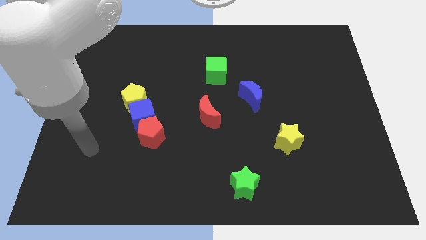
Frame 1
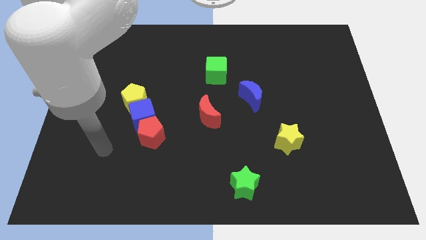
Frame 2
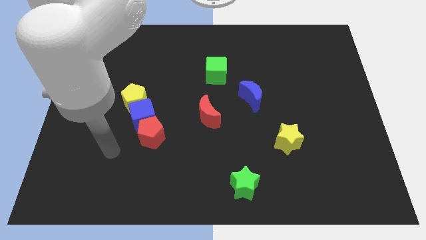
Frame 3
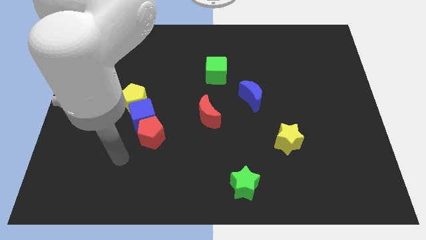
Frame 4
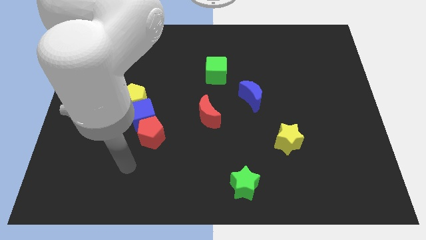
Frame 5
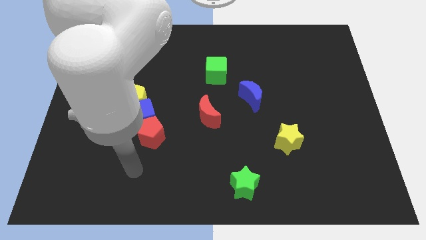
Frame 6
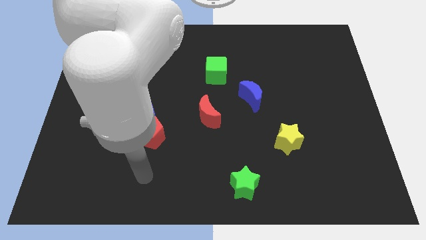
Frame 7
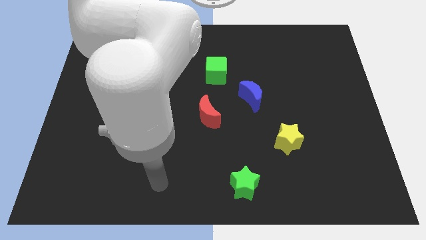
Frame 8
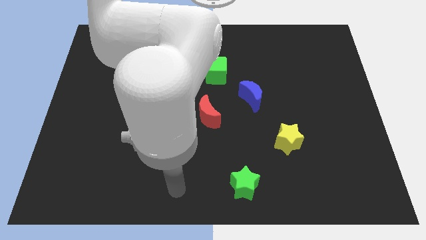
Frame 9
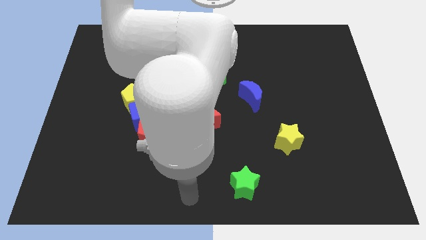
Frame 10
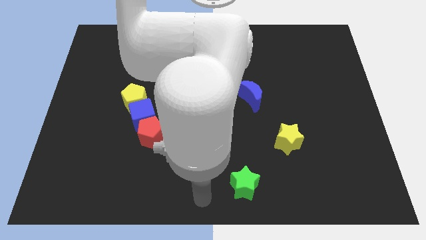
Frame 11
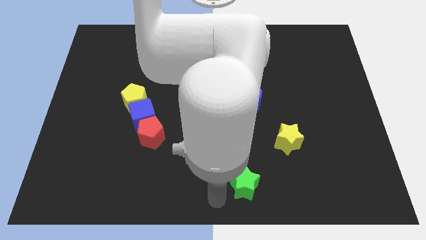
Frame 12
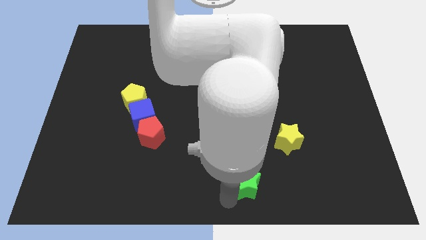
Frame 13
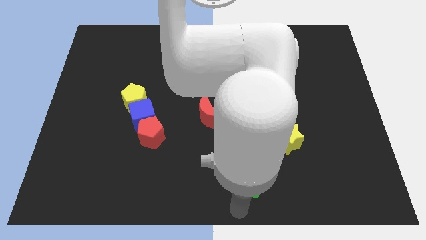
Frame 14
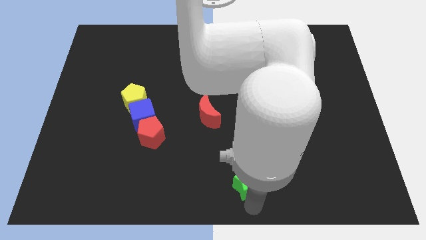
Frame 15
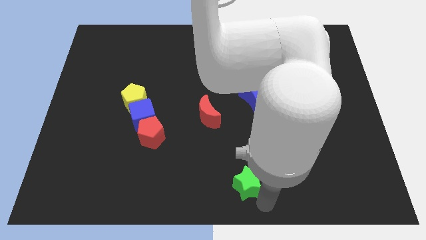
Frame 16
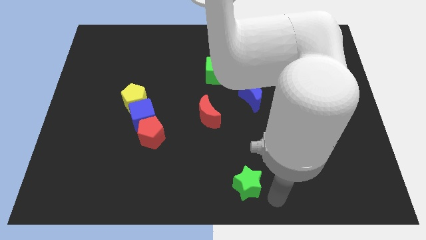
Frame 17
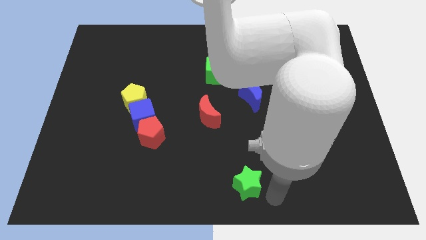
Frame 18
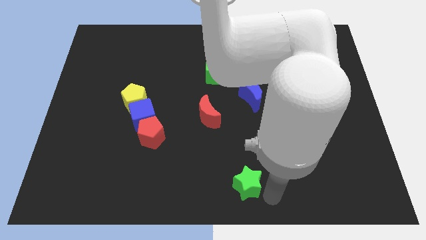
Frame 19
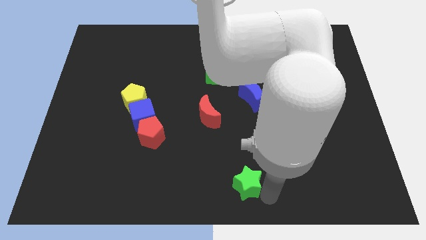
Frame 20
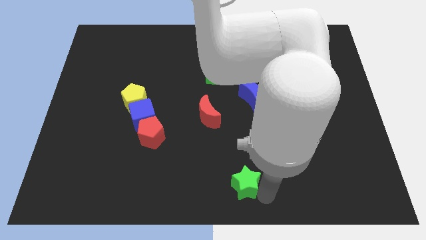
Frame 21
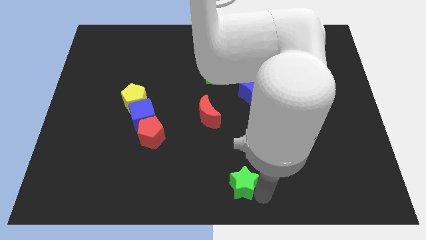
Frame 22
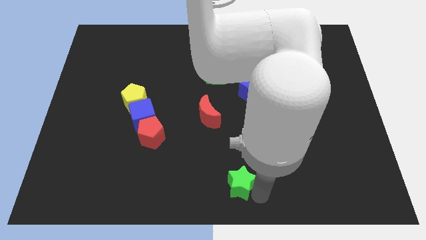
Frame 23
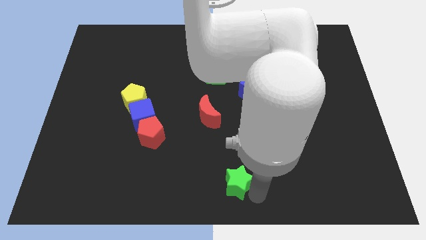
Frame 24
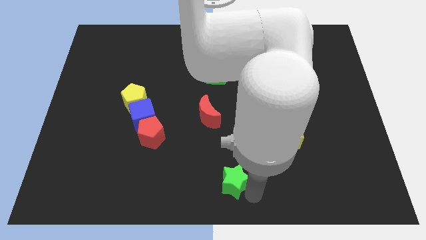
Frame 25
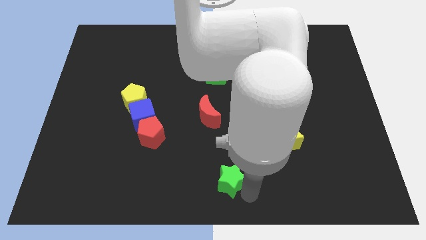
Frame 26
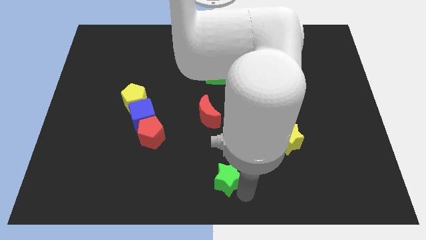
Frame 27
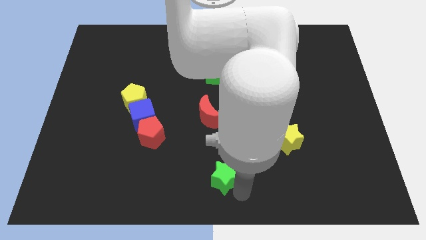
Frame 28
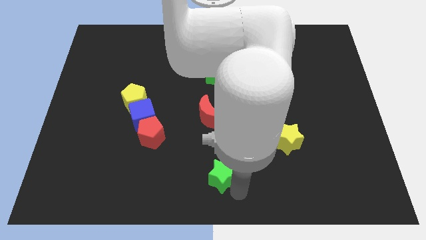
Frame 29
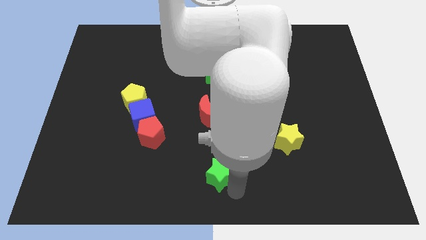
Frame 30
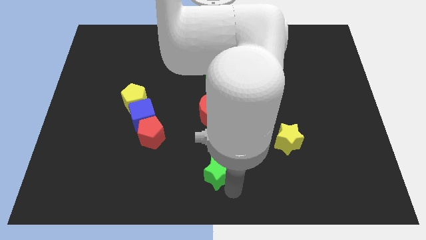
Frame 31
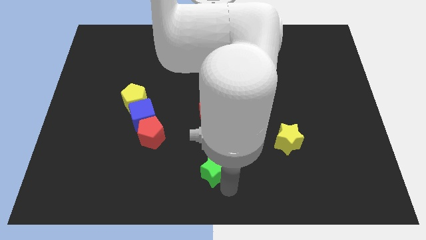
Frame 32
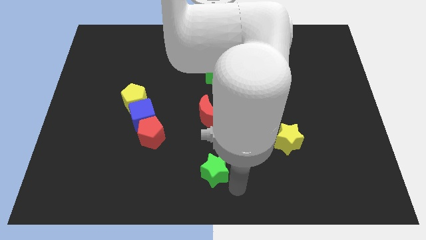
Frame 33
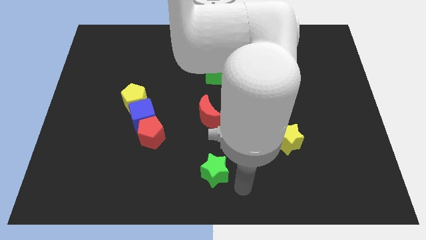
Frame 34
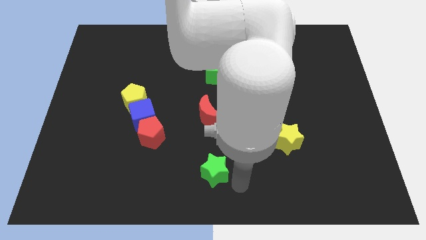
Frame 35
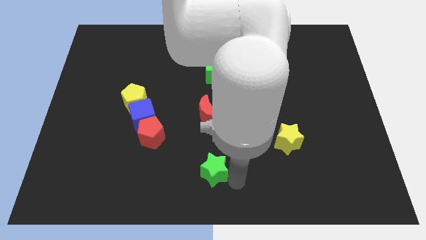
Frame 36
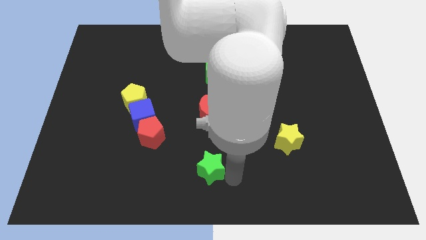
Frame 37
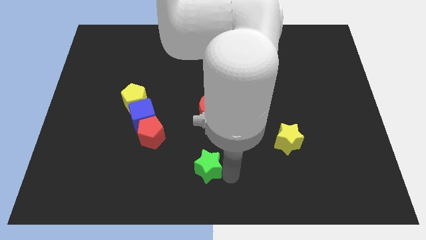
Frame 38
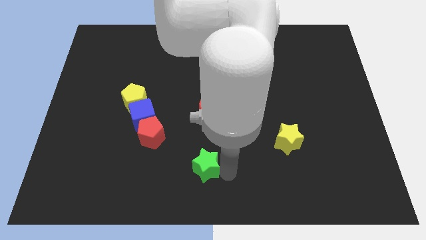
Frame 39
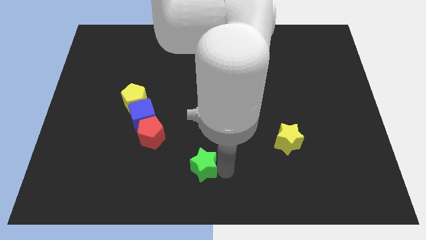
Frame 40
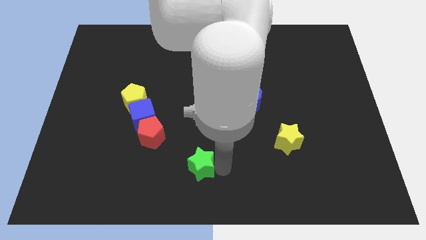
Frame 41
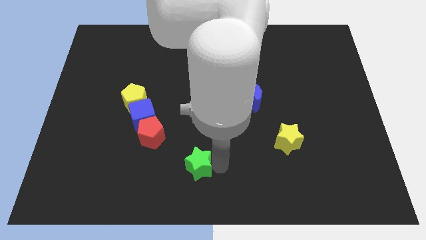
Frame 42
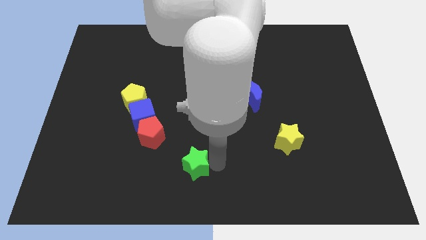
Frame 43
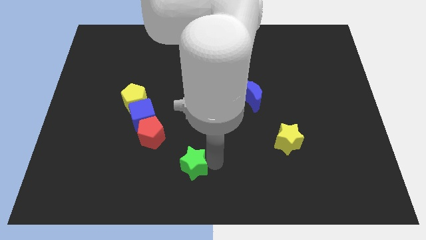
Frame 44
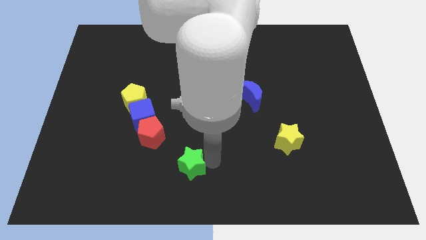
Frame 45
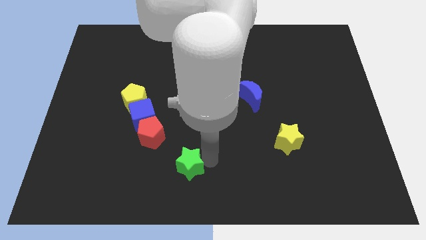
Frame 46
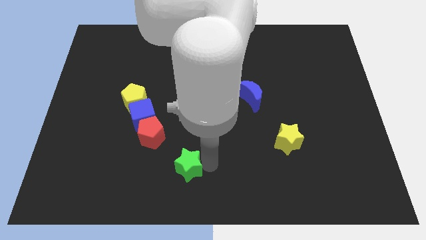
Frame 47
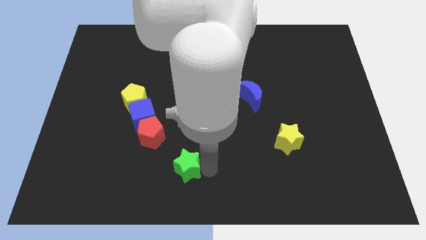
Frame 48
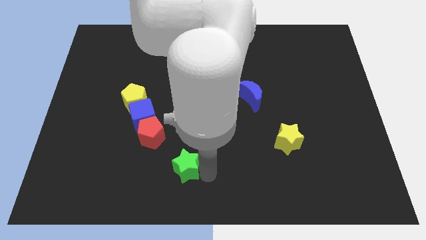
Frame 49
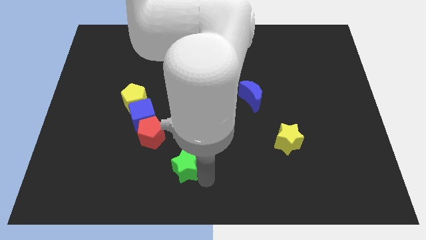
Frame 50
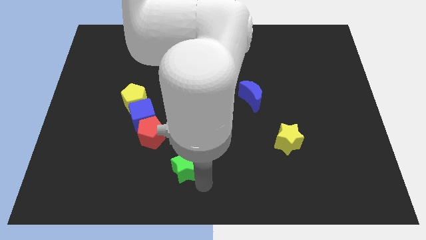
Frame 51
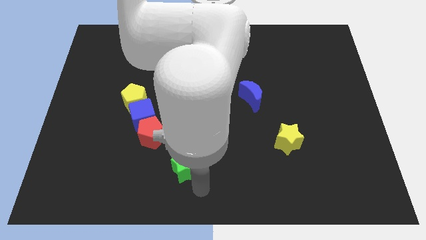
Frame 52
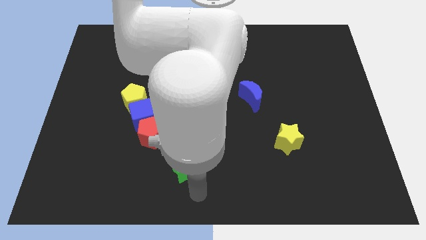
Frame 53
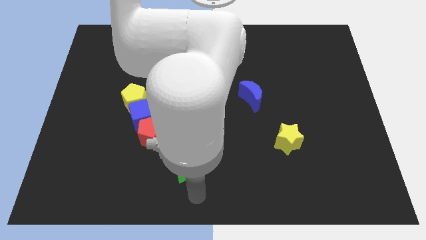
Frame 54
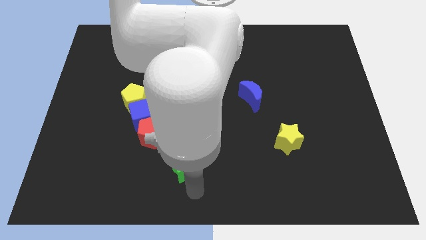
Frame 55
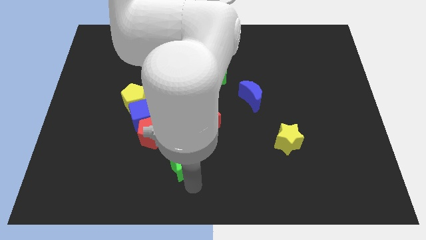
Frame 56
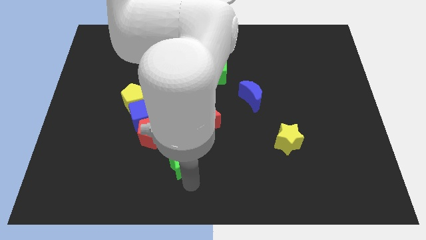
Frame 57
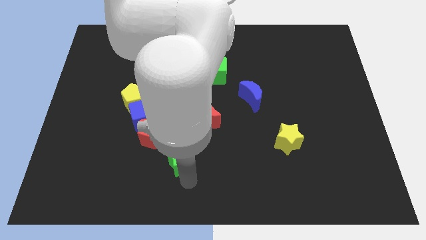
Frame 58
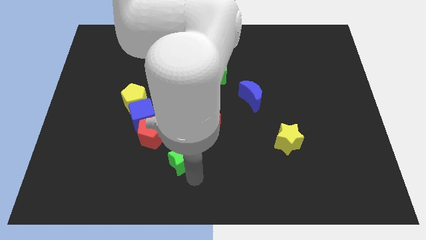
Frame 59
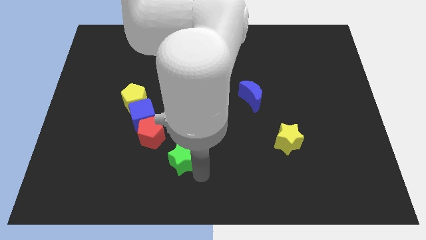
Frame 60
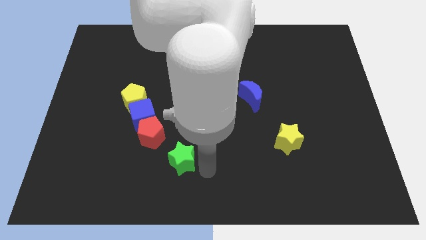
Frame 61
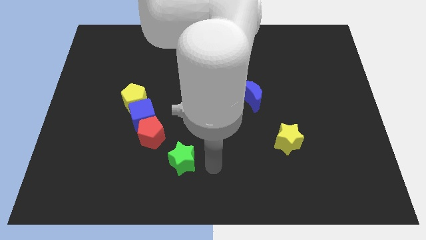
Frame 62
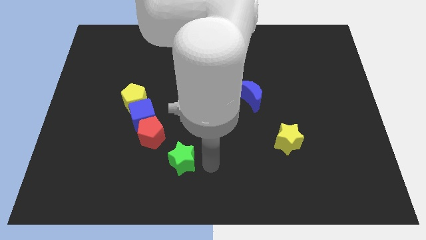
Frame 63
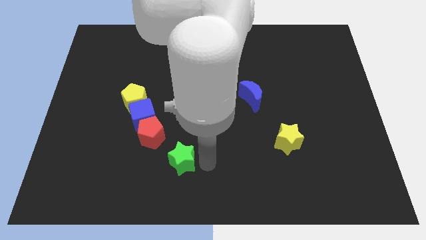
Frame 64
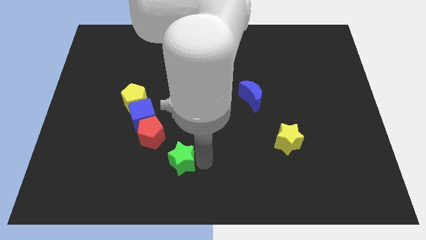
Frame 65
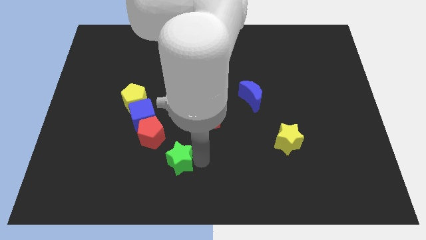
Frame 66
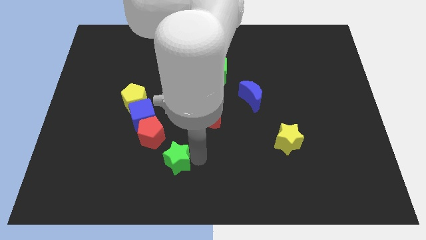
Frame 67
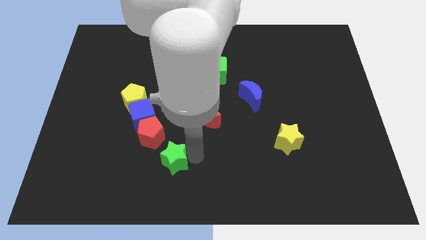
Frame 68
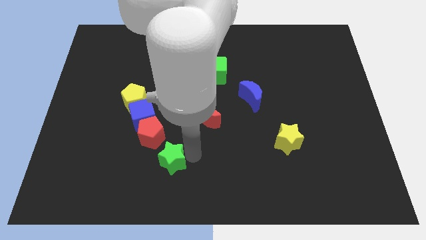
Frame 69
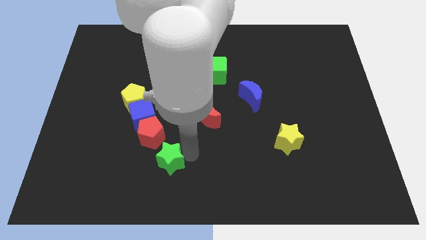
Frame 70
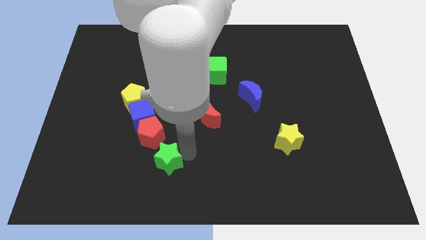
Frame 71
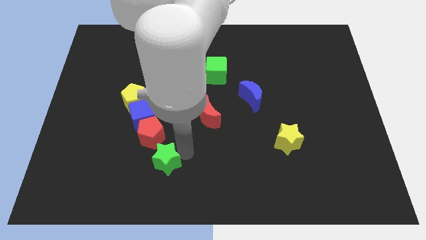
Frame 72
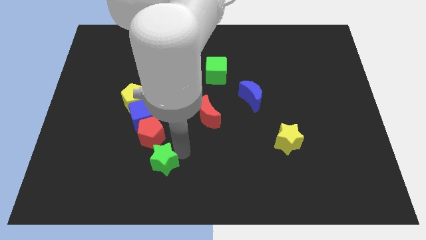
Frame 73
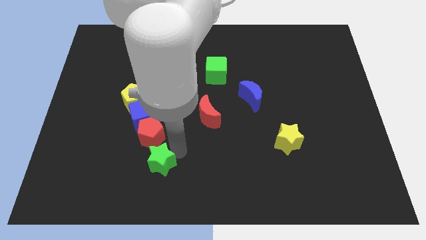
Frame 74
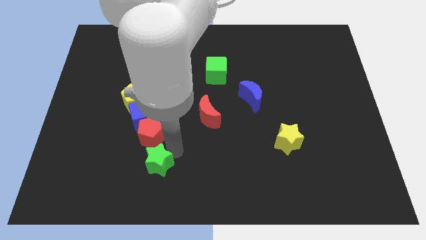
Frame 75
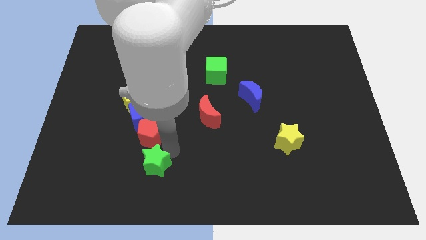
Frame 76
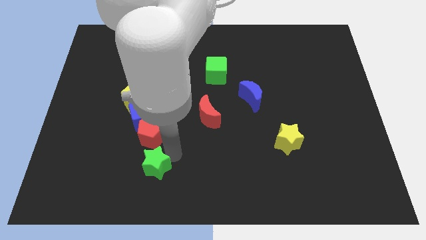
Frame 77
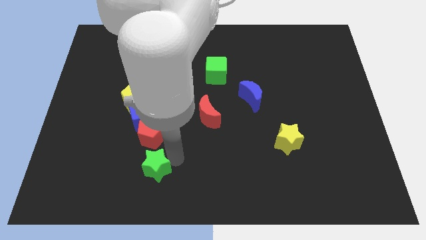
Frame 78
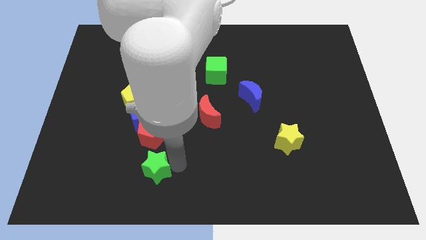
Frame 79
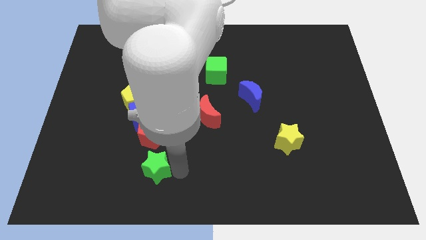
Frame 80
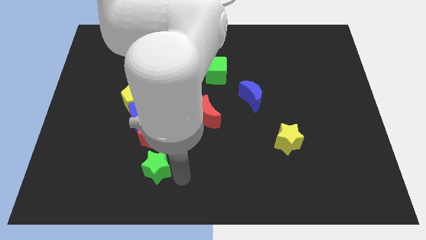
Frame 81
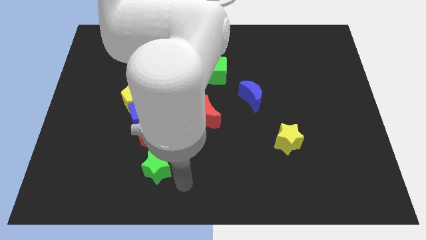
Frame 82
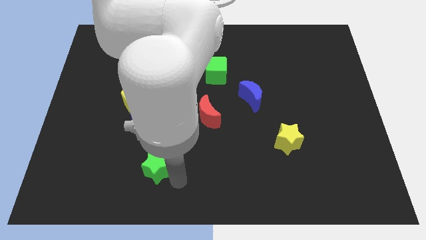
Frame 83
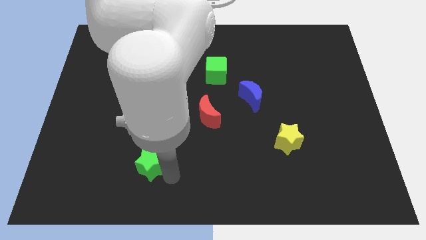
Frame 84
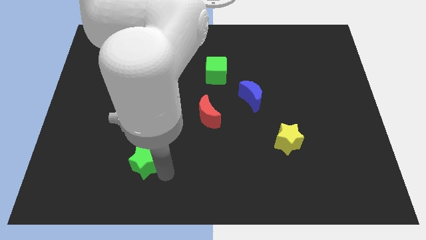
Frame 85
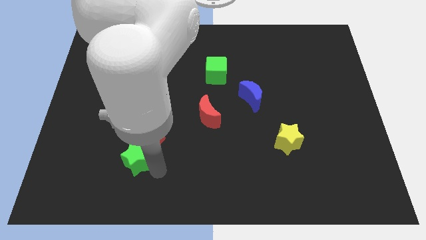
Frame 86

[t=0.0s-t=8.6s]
move the green star to the bottom side of the yellow pentagon
